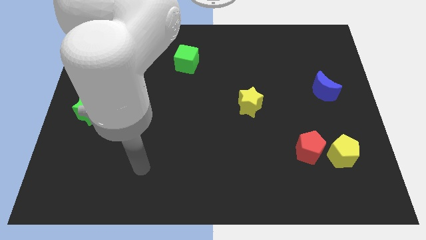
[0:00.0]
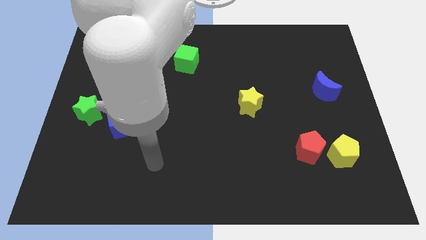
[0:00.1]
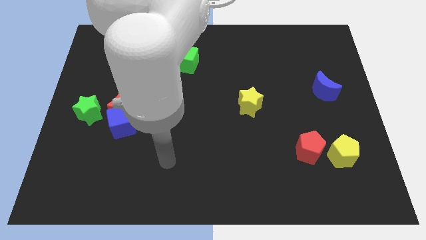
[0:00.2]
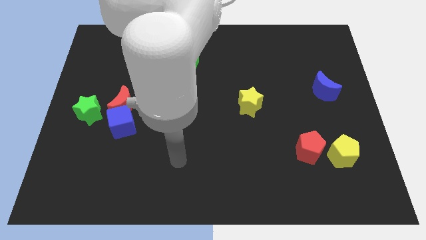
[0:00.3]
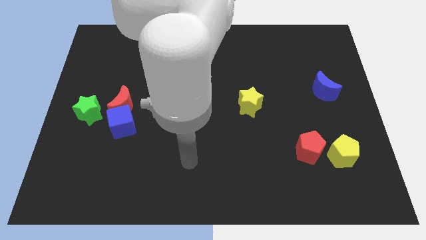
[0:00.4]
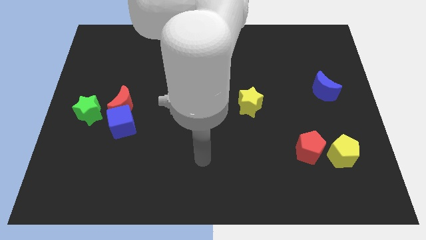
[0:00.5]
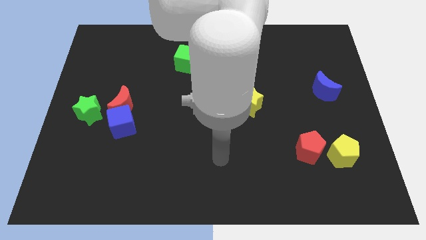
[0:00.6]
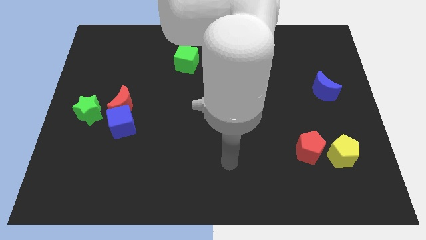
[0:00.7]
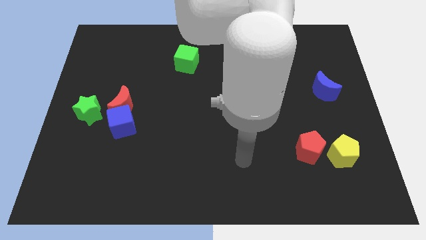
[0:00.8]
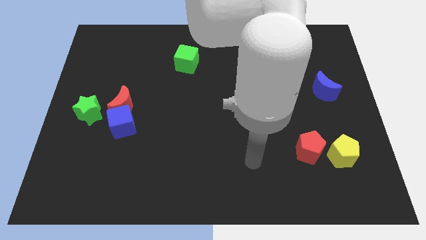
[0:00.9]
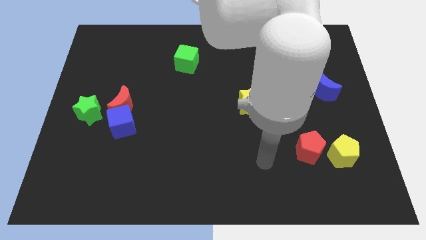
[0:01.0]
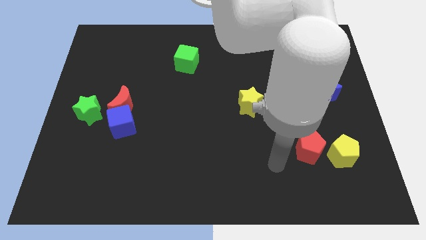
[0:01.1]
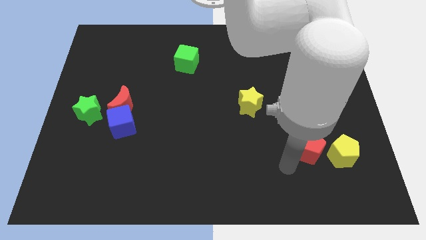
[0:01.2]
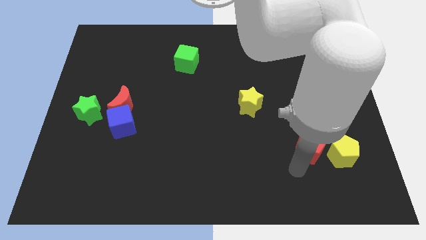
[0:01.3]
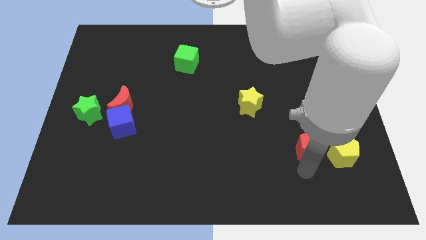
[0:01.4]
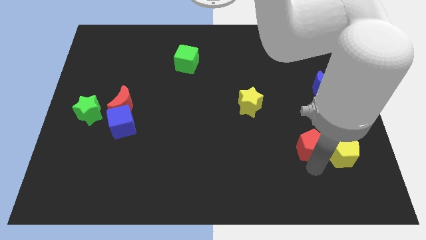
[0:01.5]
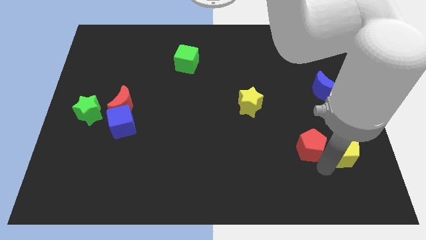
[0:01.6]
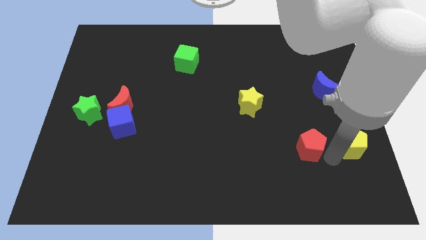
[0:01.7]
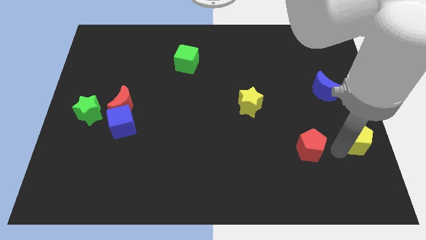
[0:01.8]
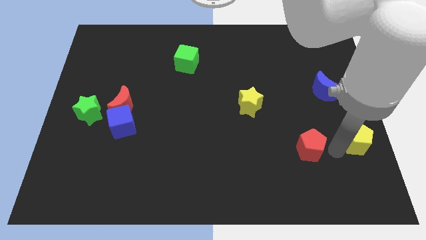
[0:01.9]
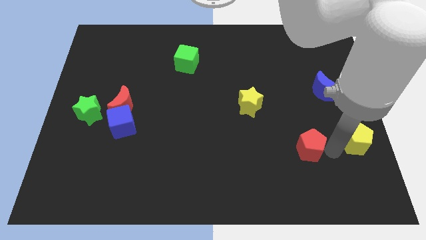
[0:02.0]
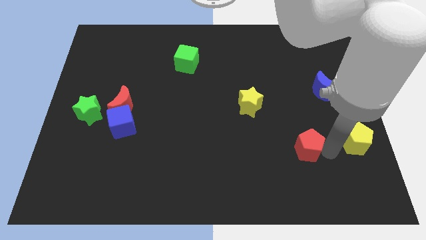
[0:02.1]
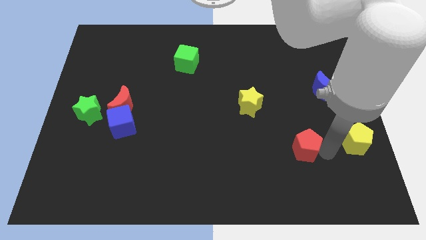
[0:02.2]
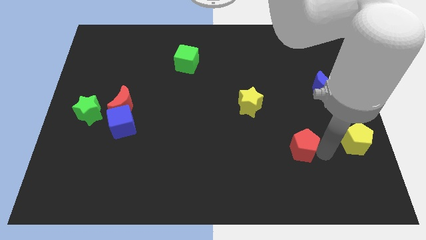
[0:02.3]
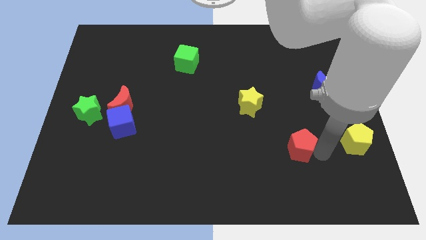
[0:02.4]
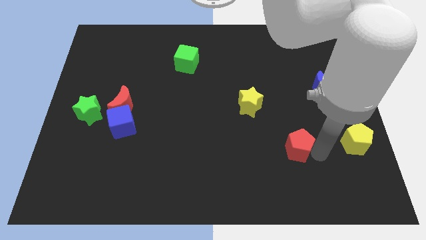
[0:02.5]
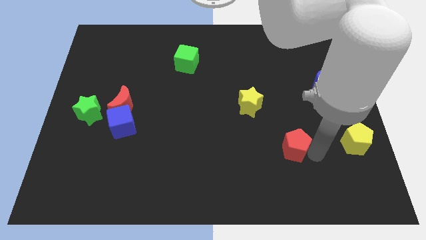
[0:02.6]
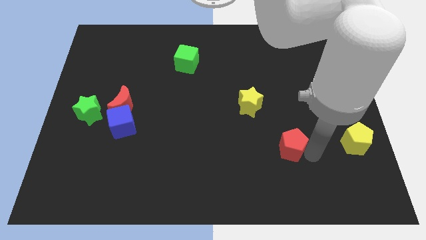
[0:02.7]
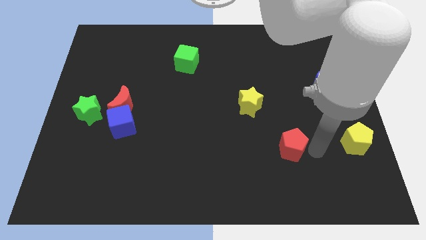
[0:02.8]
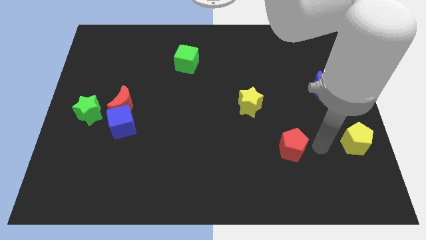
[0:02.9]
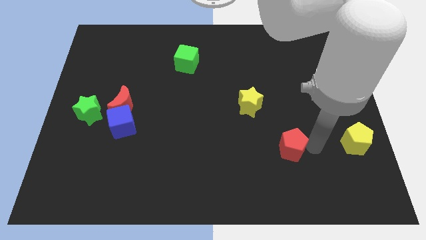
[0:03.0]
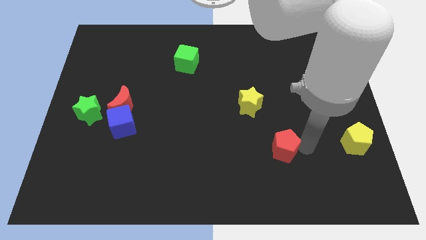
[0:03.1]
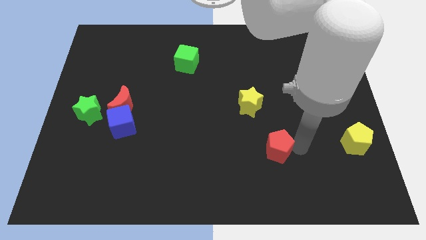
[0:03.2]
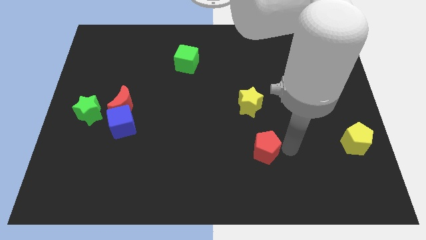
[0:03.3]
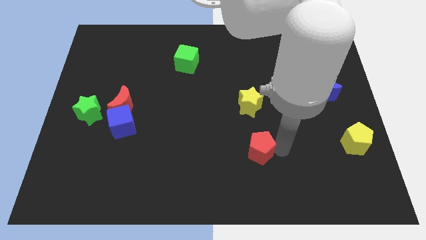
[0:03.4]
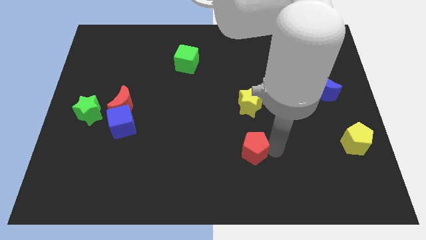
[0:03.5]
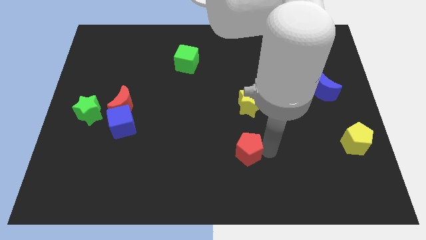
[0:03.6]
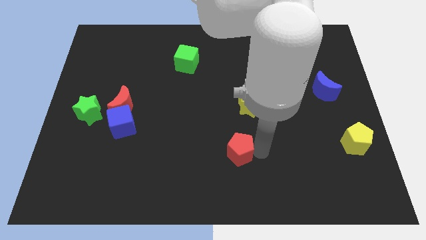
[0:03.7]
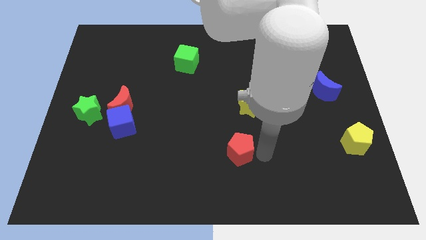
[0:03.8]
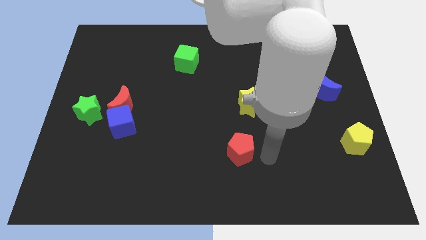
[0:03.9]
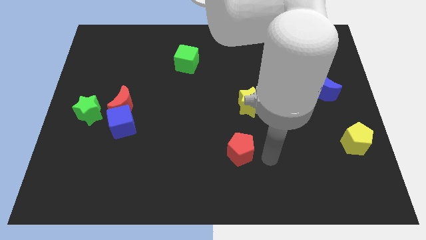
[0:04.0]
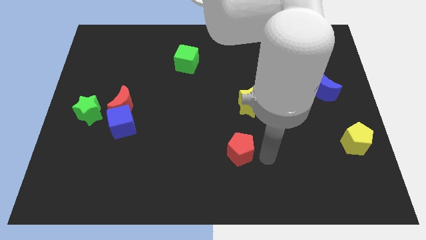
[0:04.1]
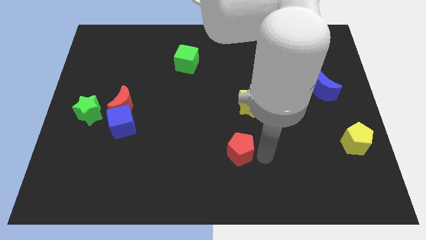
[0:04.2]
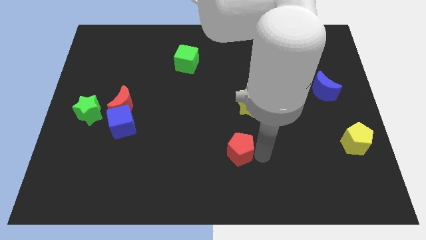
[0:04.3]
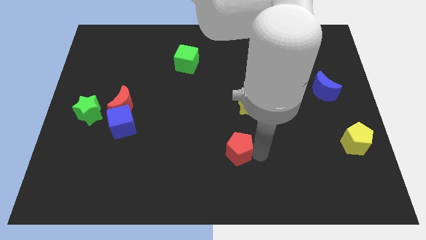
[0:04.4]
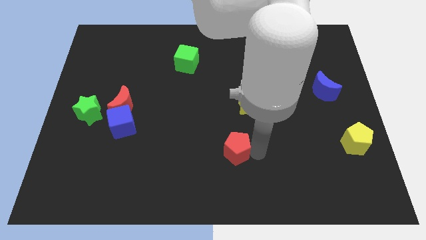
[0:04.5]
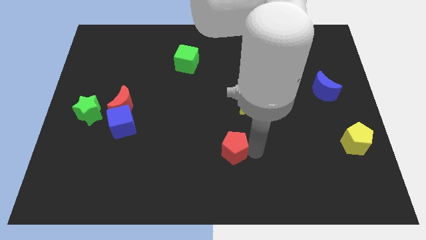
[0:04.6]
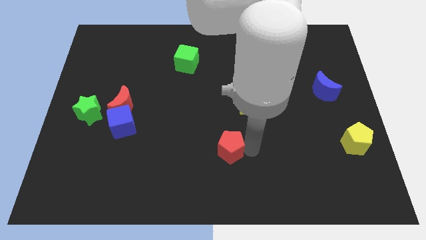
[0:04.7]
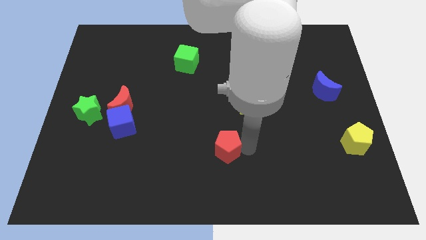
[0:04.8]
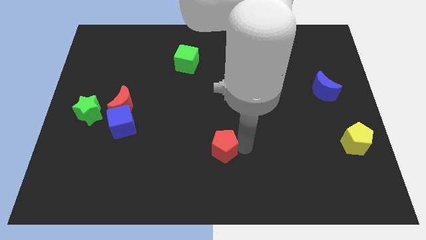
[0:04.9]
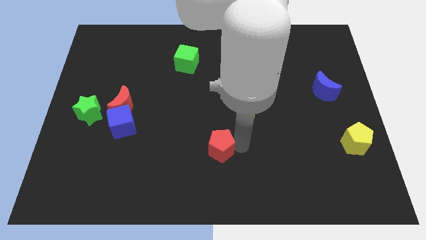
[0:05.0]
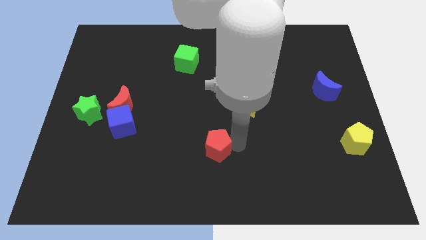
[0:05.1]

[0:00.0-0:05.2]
move the red pentagon to the left

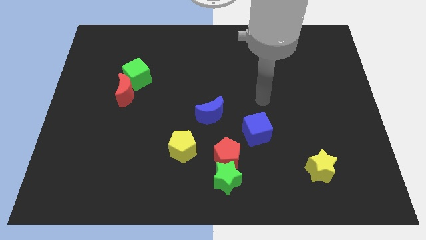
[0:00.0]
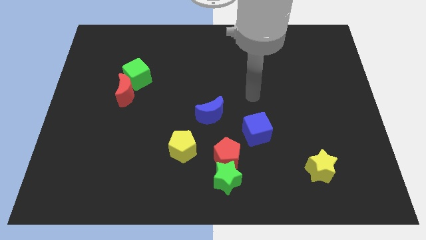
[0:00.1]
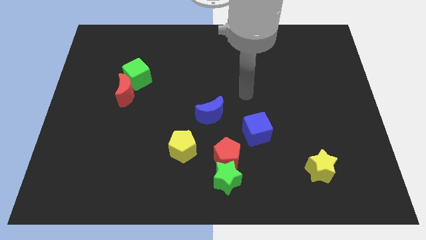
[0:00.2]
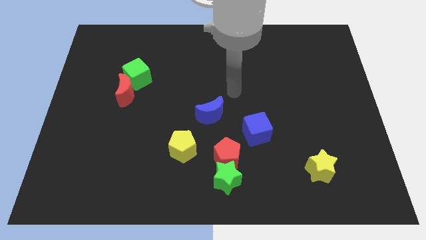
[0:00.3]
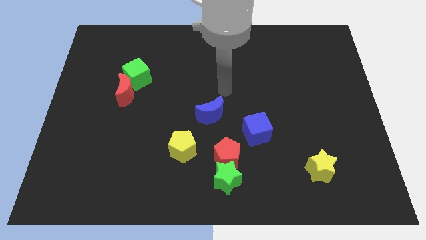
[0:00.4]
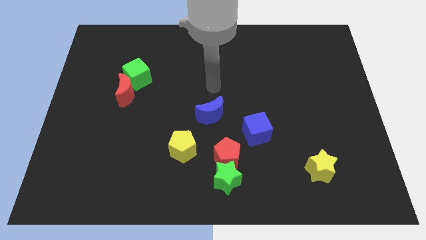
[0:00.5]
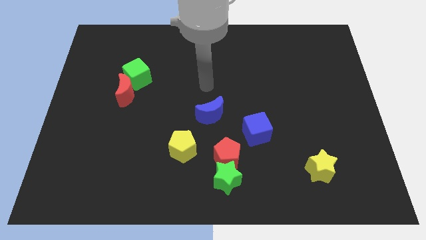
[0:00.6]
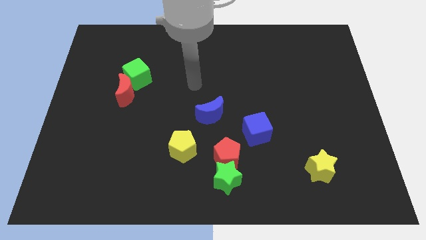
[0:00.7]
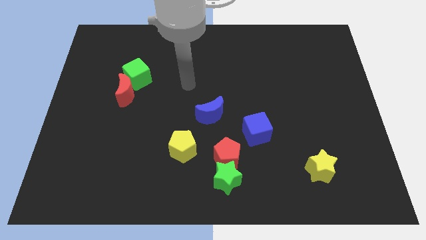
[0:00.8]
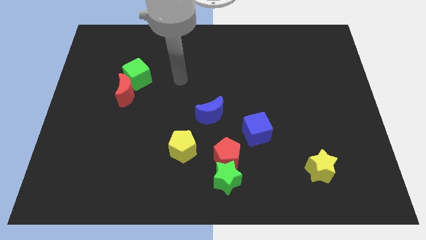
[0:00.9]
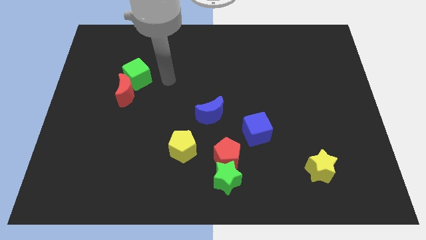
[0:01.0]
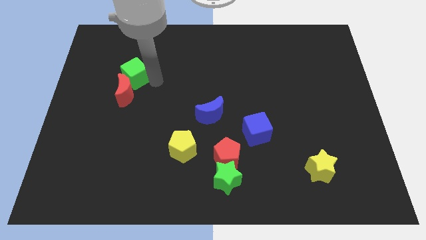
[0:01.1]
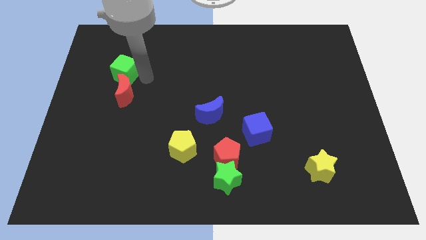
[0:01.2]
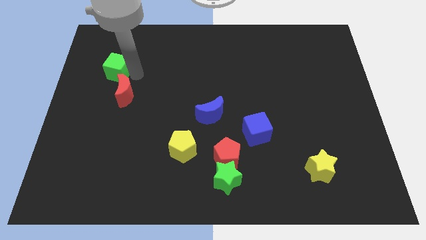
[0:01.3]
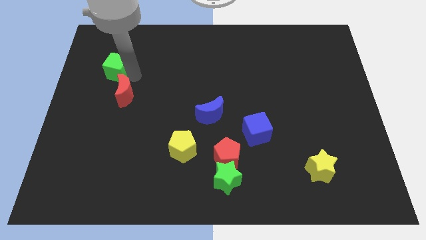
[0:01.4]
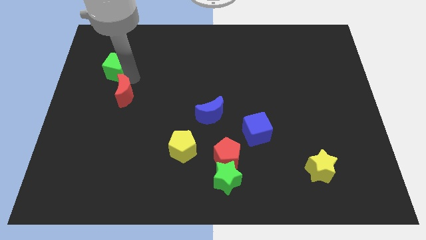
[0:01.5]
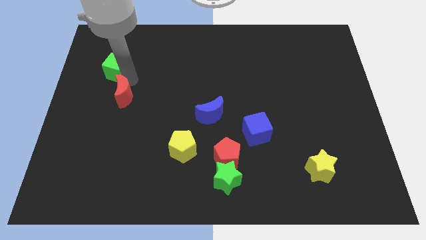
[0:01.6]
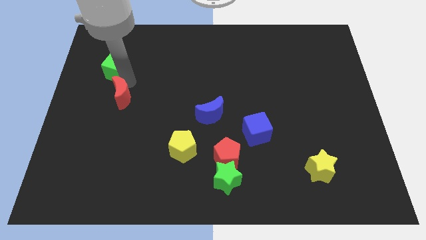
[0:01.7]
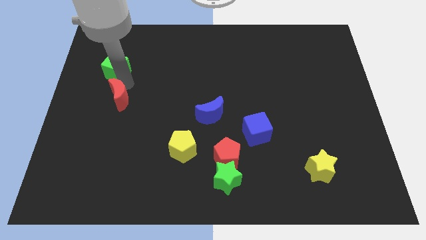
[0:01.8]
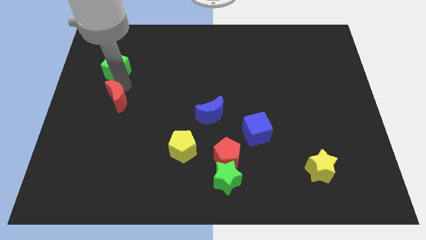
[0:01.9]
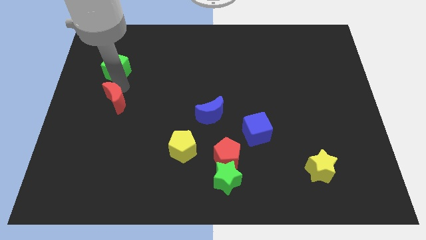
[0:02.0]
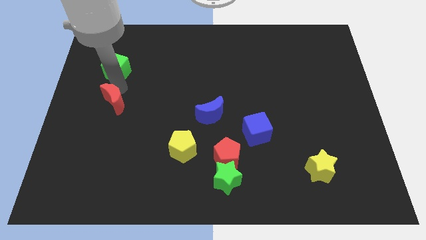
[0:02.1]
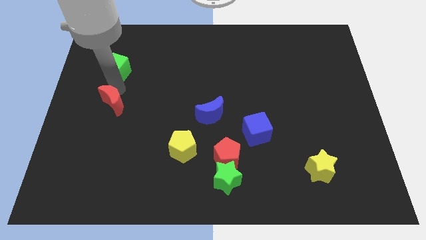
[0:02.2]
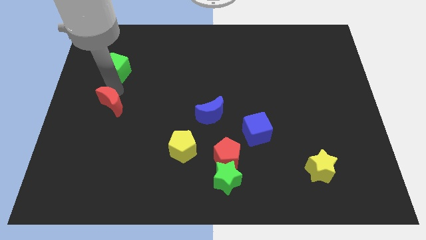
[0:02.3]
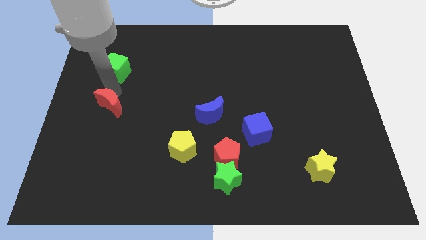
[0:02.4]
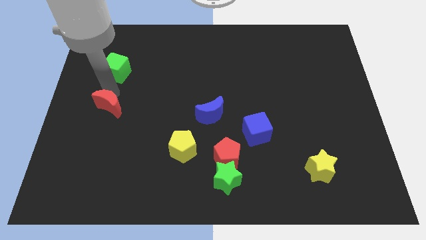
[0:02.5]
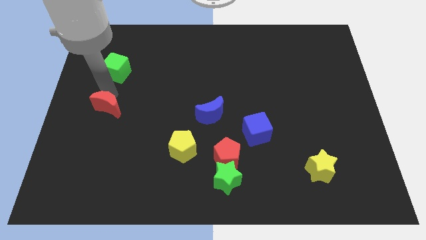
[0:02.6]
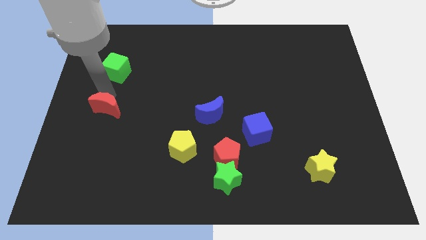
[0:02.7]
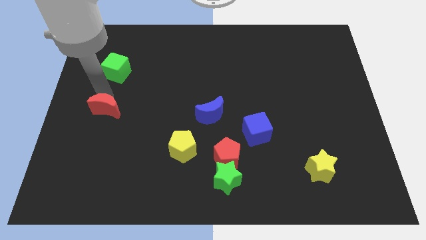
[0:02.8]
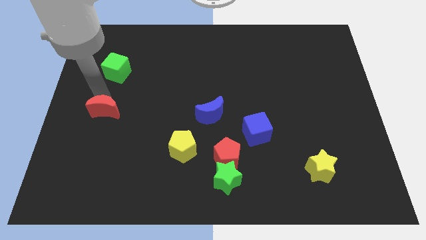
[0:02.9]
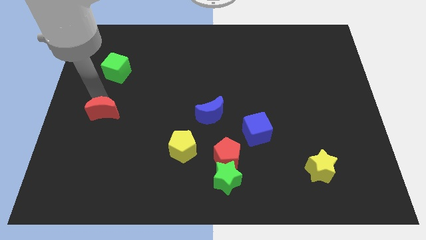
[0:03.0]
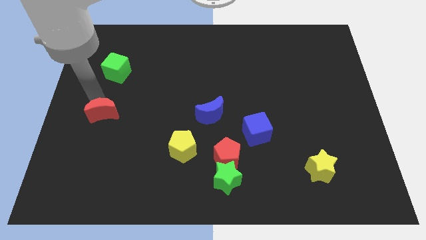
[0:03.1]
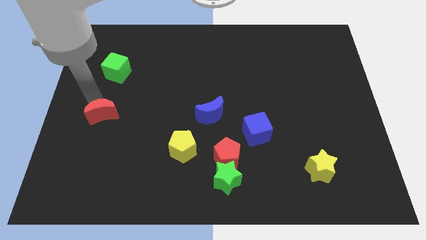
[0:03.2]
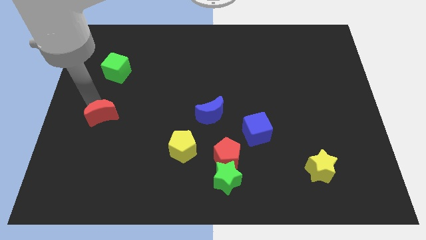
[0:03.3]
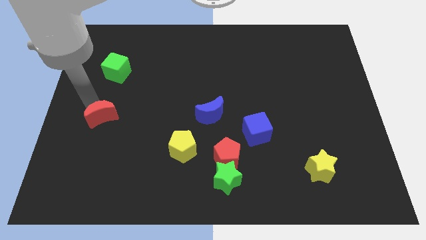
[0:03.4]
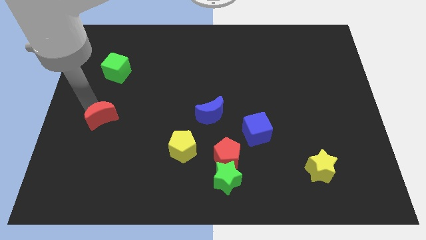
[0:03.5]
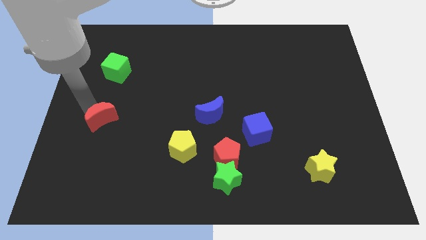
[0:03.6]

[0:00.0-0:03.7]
push the red moon downwards somewhat
